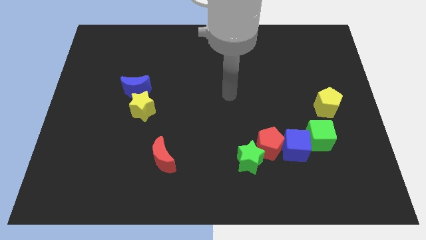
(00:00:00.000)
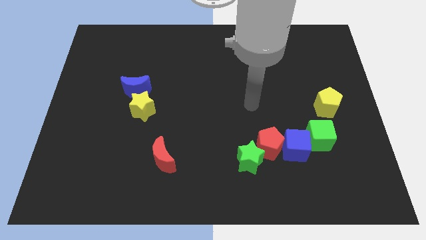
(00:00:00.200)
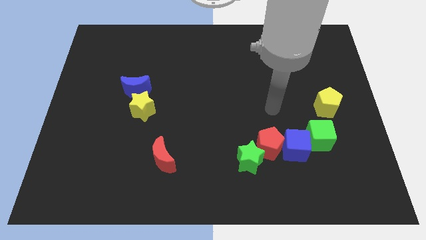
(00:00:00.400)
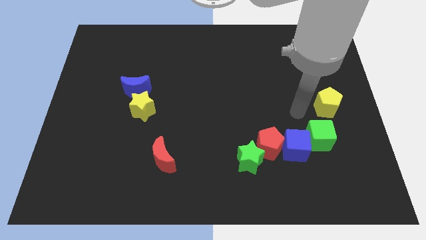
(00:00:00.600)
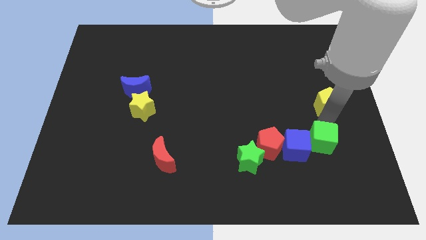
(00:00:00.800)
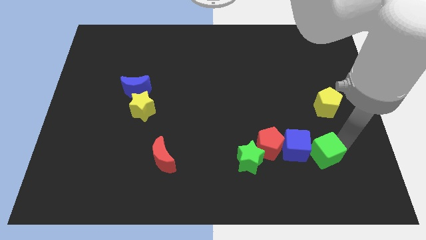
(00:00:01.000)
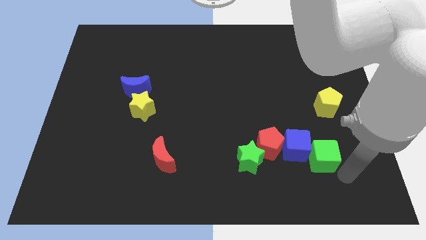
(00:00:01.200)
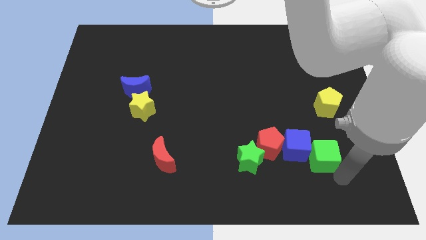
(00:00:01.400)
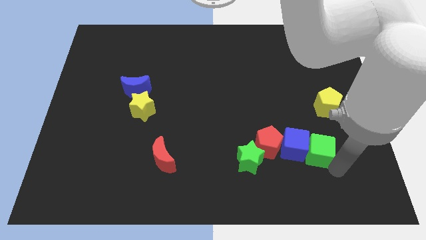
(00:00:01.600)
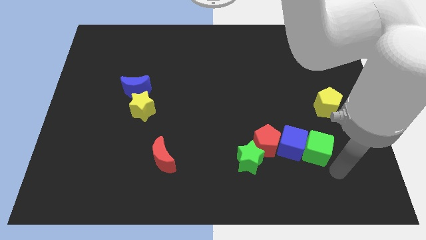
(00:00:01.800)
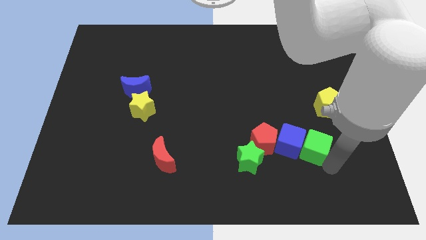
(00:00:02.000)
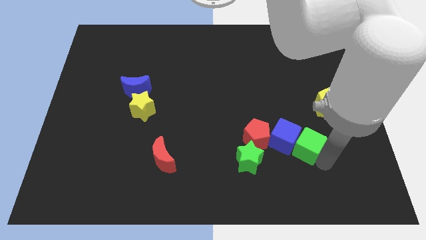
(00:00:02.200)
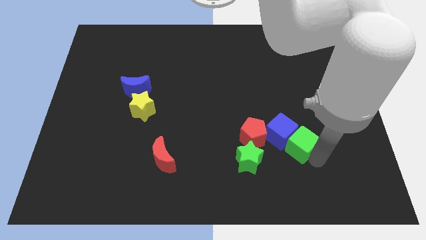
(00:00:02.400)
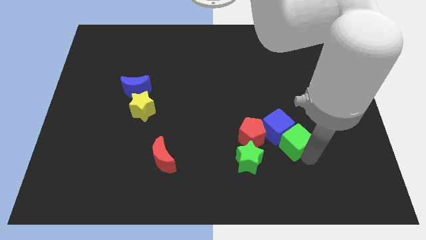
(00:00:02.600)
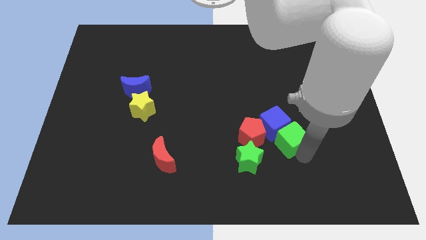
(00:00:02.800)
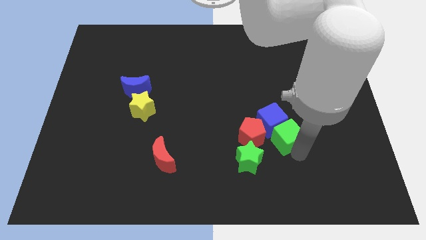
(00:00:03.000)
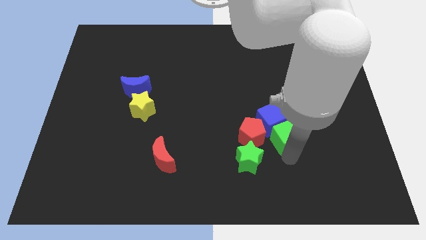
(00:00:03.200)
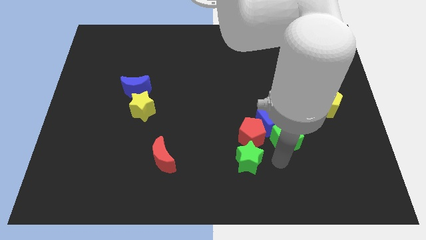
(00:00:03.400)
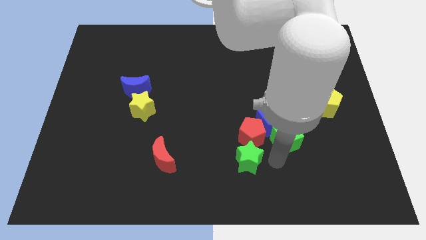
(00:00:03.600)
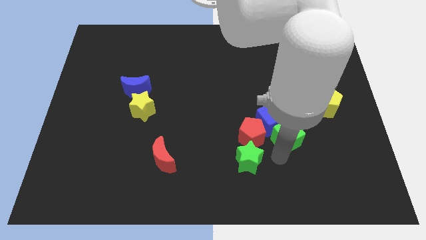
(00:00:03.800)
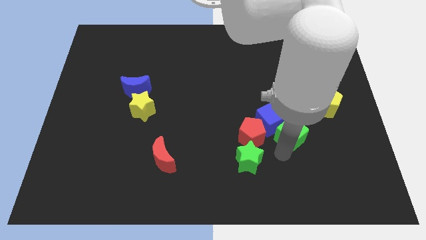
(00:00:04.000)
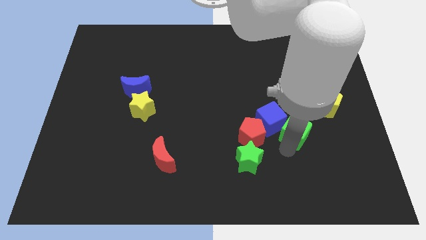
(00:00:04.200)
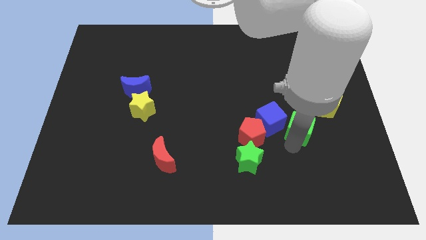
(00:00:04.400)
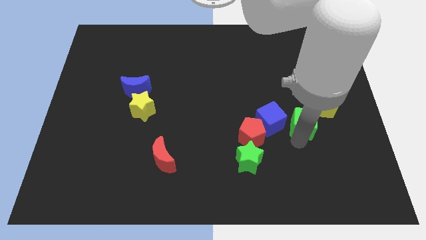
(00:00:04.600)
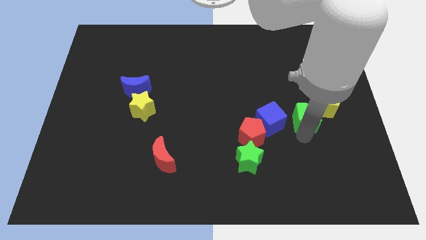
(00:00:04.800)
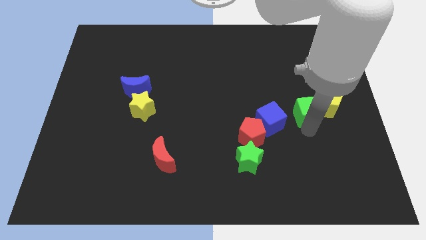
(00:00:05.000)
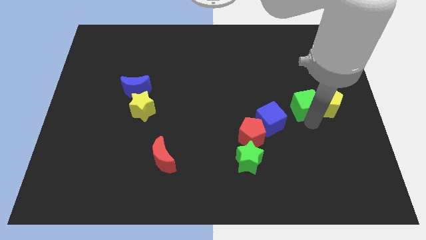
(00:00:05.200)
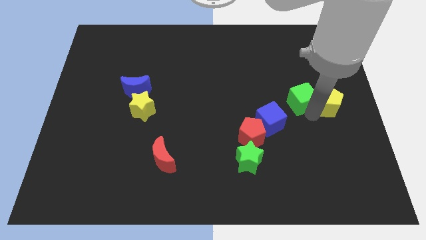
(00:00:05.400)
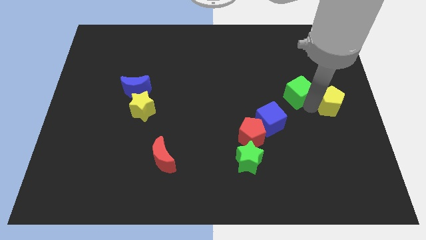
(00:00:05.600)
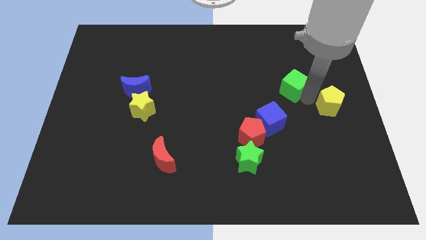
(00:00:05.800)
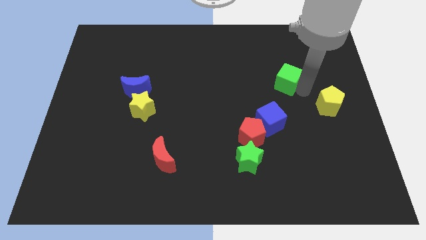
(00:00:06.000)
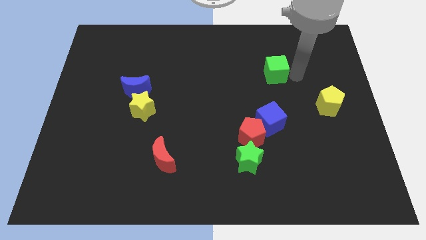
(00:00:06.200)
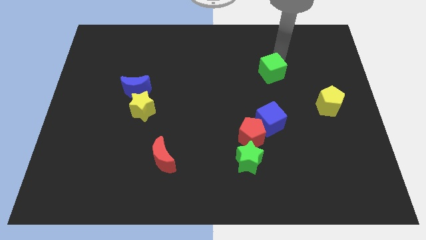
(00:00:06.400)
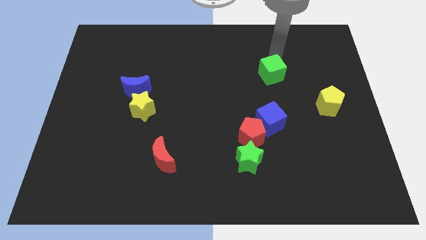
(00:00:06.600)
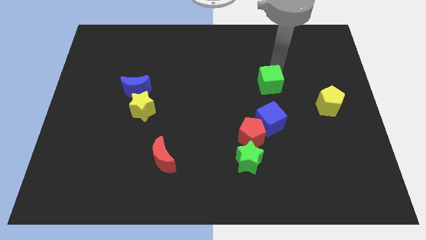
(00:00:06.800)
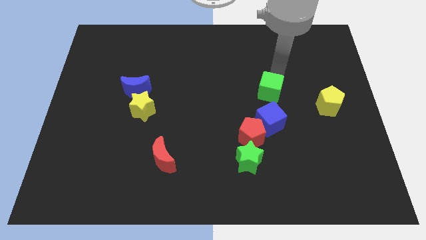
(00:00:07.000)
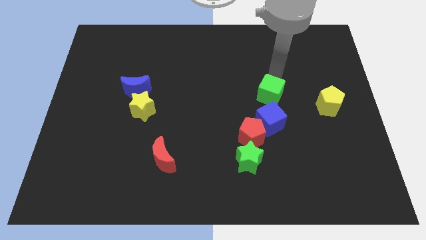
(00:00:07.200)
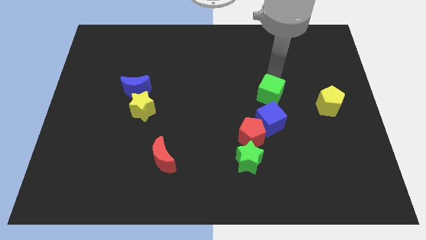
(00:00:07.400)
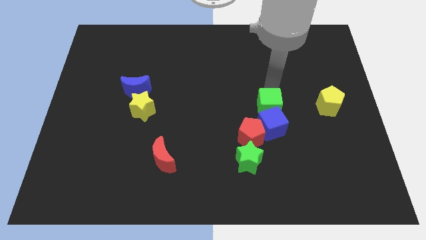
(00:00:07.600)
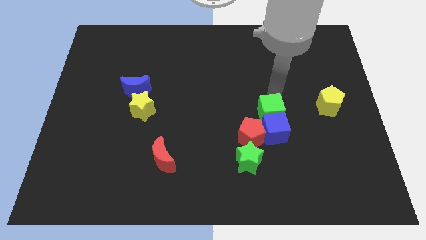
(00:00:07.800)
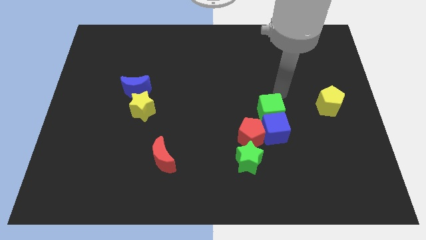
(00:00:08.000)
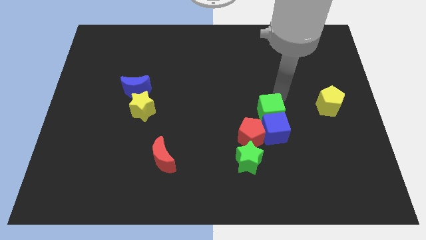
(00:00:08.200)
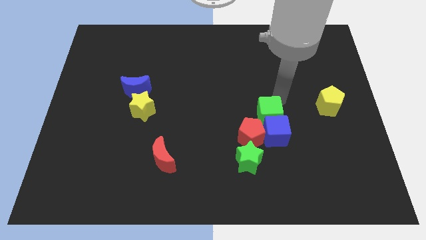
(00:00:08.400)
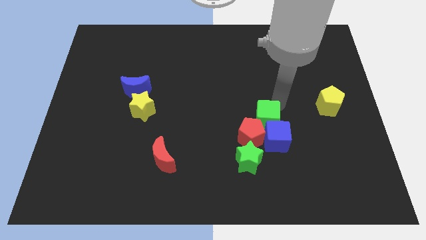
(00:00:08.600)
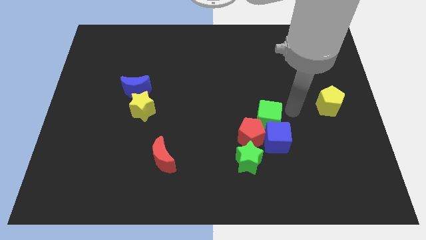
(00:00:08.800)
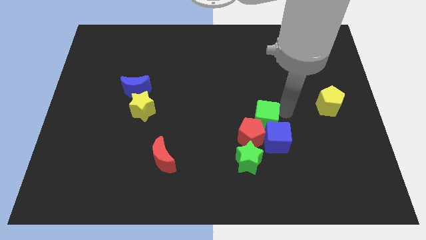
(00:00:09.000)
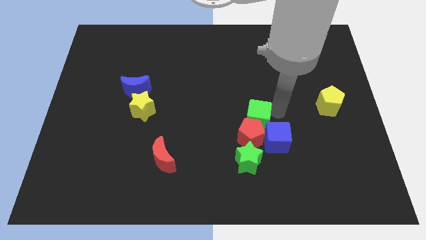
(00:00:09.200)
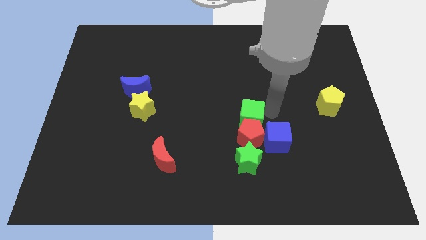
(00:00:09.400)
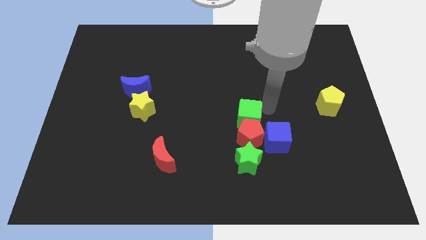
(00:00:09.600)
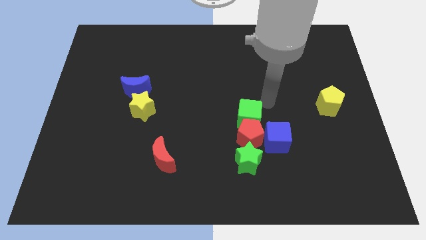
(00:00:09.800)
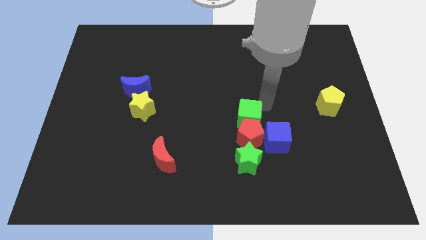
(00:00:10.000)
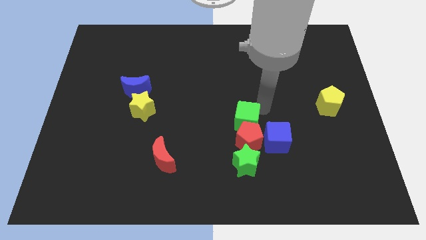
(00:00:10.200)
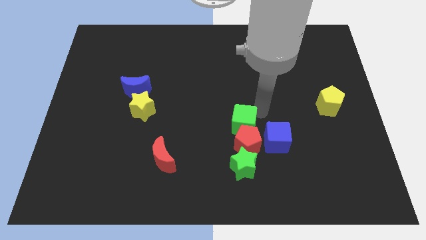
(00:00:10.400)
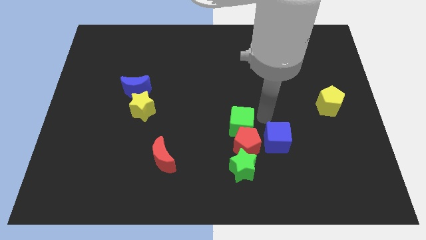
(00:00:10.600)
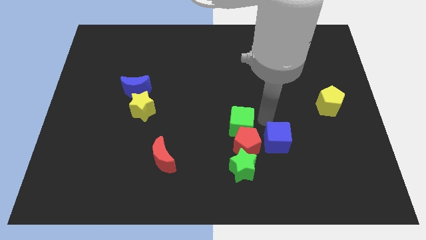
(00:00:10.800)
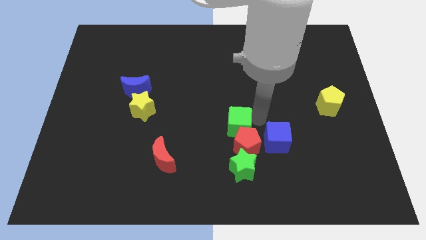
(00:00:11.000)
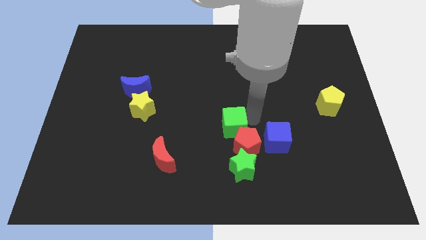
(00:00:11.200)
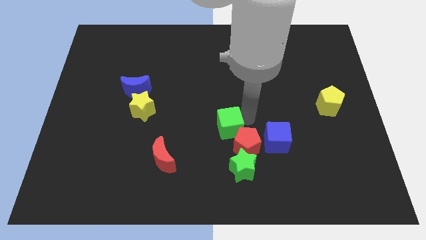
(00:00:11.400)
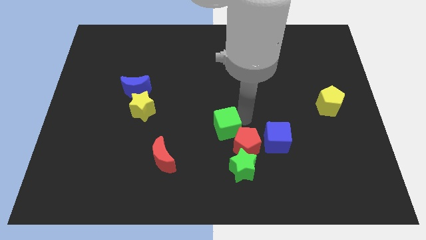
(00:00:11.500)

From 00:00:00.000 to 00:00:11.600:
move the green cube left

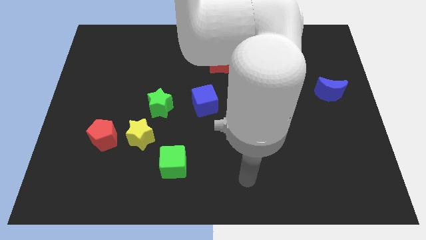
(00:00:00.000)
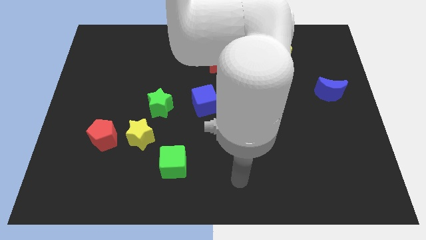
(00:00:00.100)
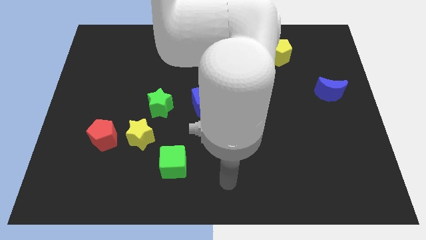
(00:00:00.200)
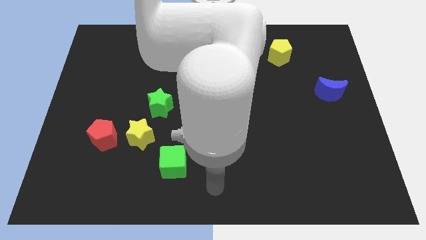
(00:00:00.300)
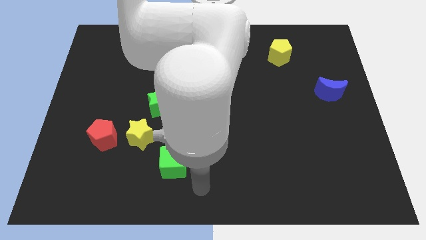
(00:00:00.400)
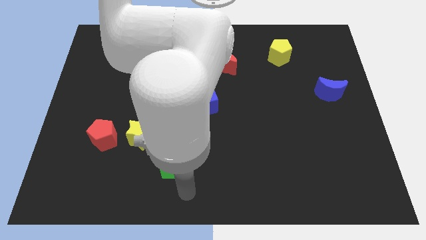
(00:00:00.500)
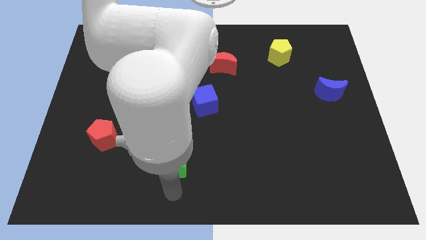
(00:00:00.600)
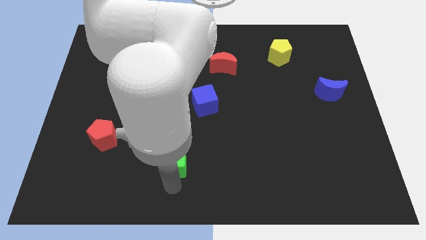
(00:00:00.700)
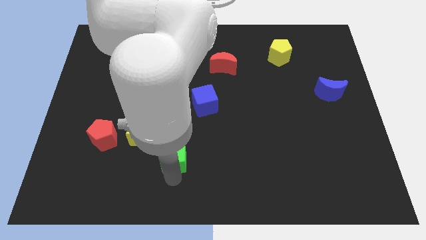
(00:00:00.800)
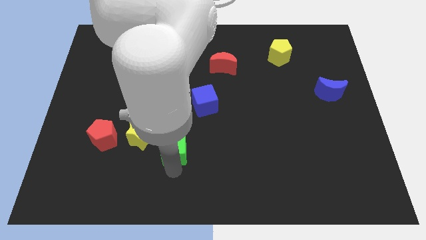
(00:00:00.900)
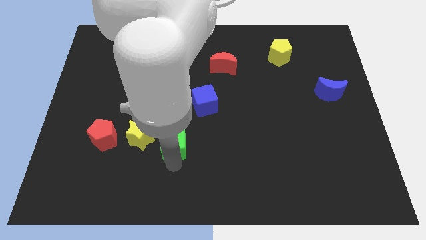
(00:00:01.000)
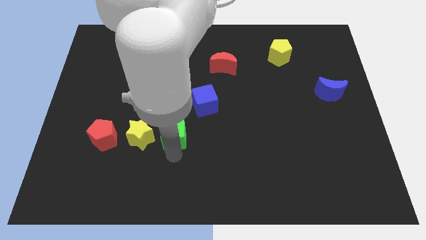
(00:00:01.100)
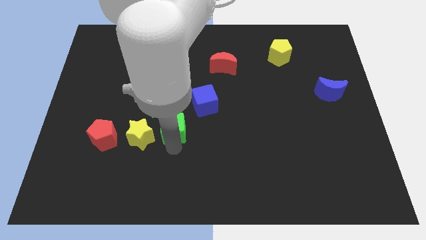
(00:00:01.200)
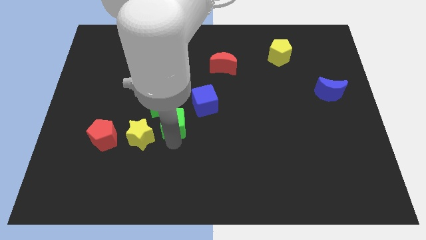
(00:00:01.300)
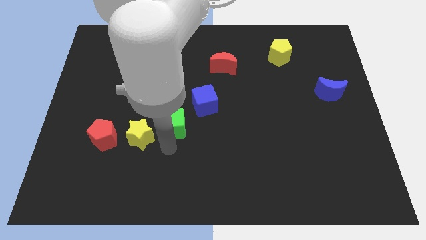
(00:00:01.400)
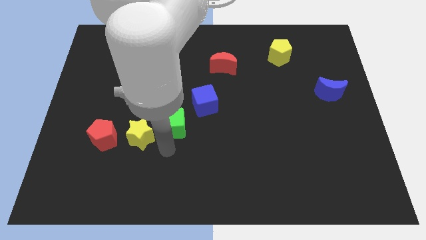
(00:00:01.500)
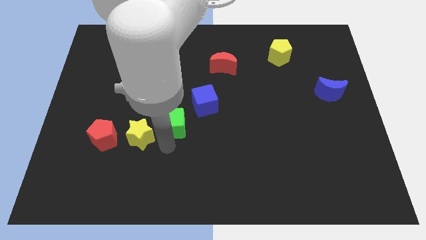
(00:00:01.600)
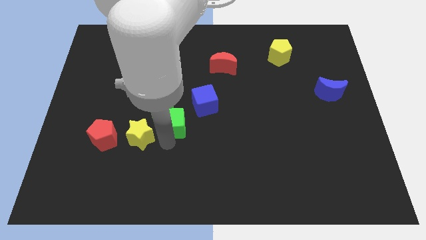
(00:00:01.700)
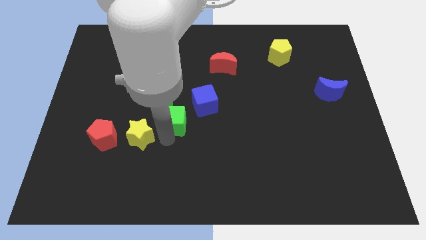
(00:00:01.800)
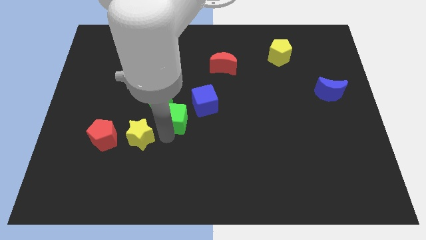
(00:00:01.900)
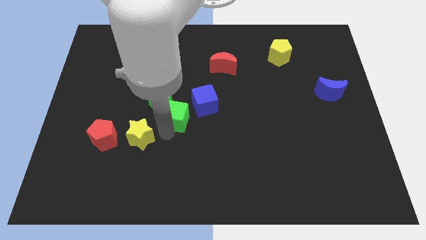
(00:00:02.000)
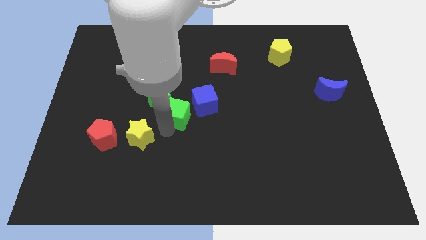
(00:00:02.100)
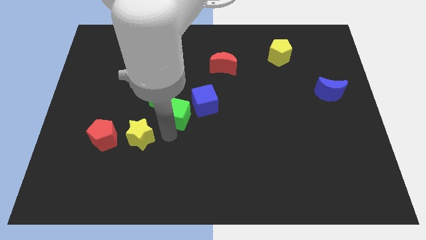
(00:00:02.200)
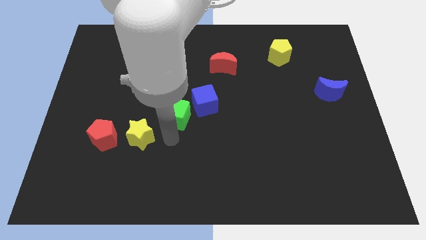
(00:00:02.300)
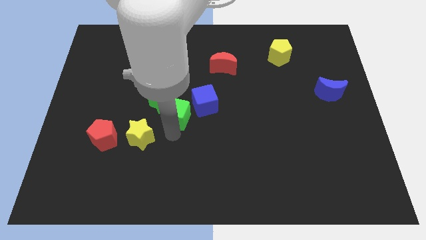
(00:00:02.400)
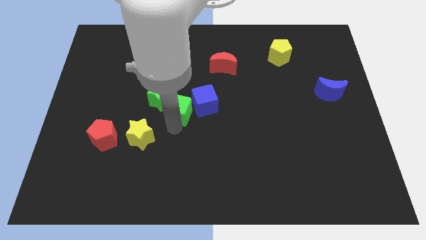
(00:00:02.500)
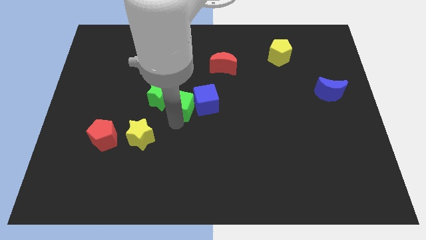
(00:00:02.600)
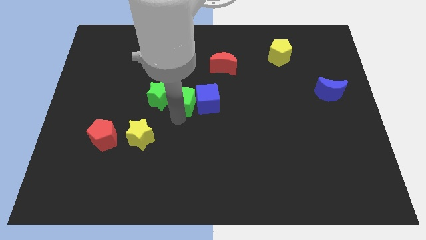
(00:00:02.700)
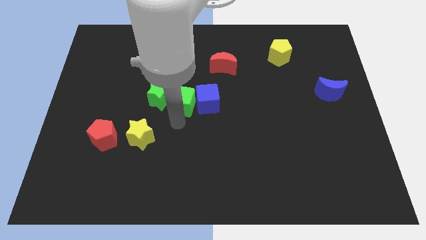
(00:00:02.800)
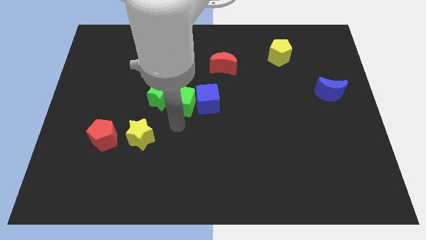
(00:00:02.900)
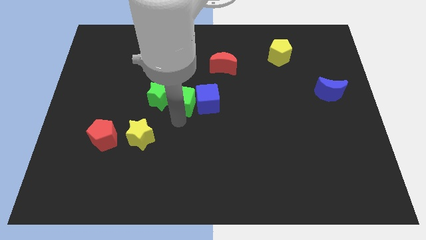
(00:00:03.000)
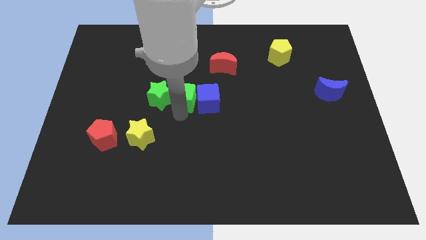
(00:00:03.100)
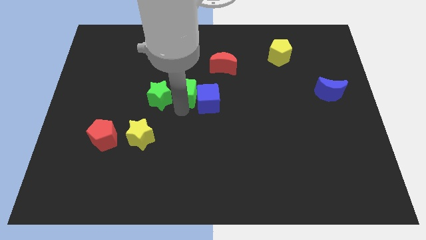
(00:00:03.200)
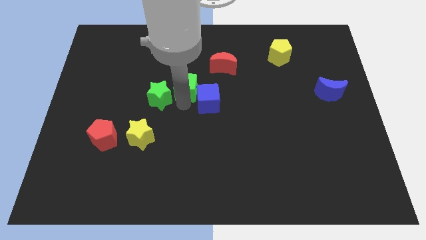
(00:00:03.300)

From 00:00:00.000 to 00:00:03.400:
move the green cube upwards
